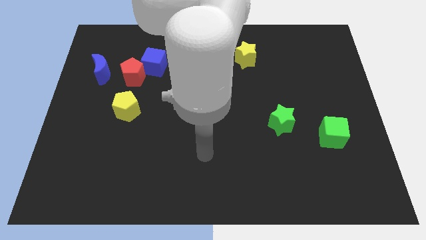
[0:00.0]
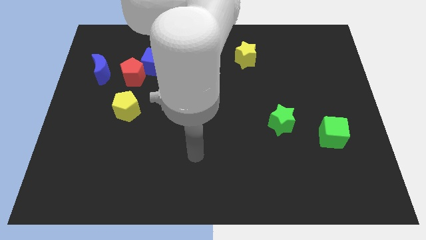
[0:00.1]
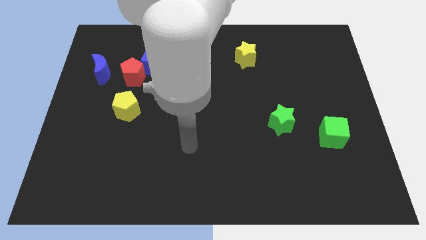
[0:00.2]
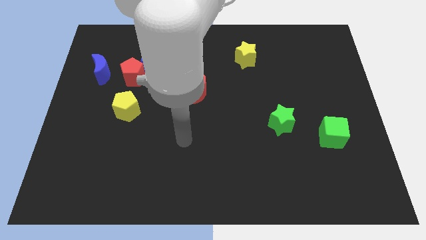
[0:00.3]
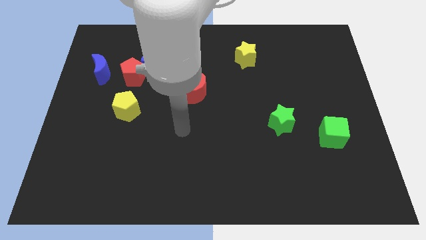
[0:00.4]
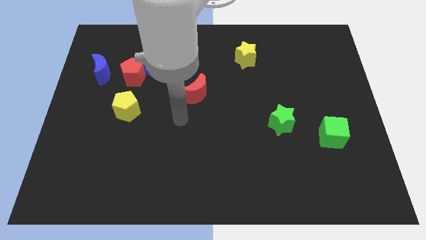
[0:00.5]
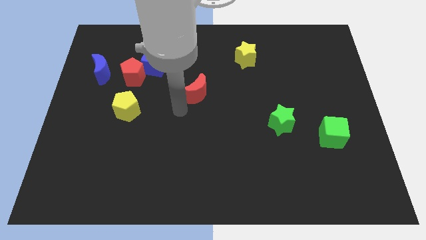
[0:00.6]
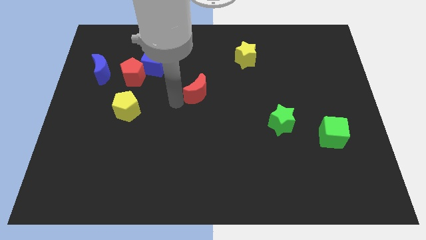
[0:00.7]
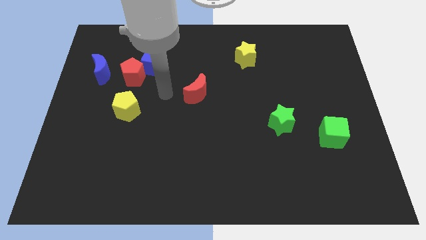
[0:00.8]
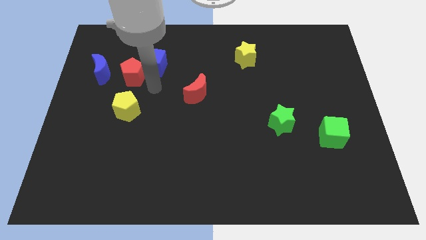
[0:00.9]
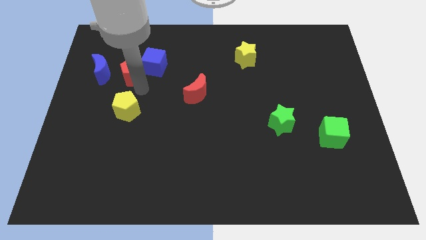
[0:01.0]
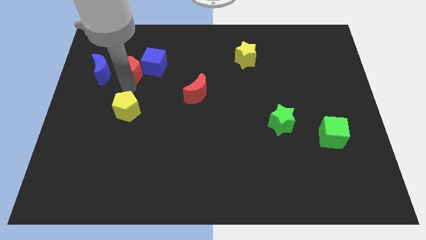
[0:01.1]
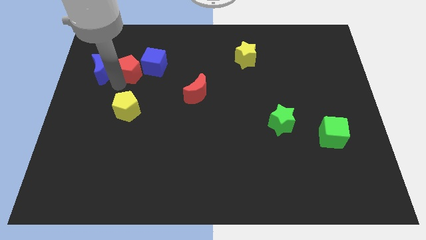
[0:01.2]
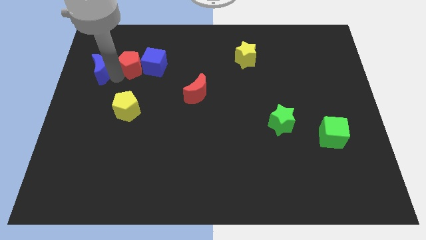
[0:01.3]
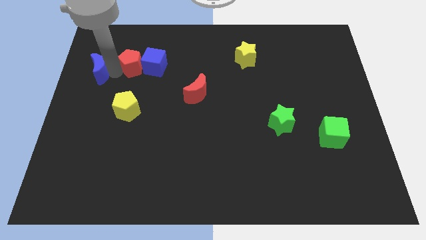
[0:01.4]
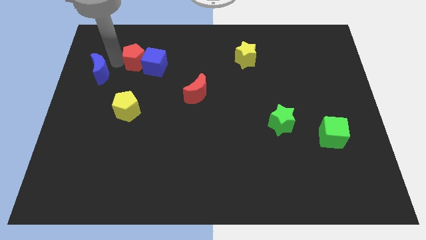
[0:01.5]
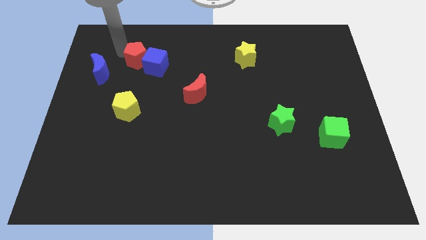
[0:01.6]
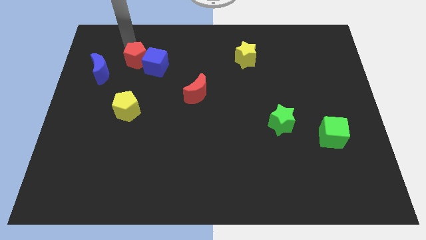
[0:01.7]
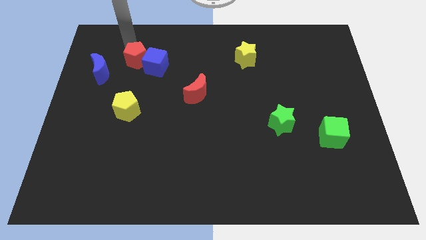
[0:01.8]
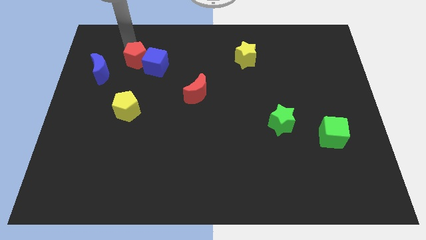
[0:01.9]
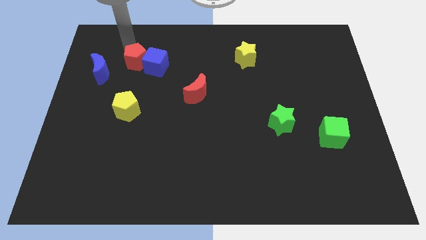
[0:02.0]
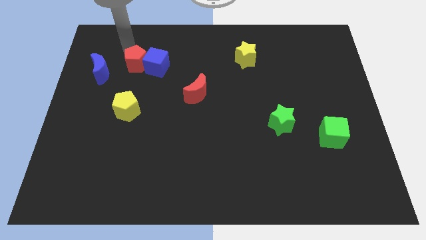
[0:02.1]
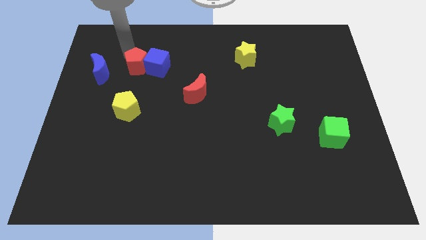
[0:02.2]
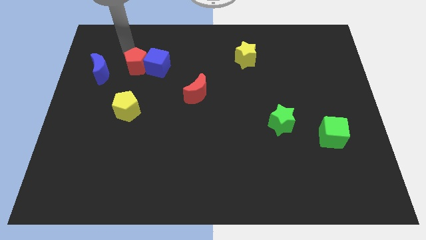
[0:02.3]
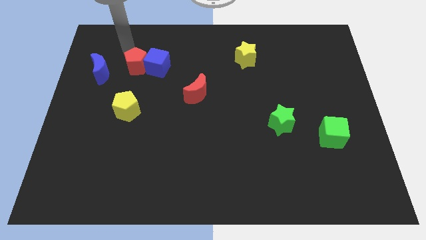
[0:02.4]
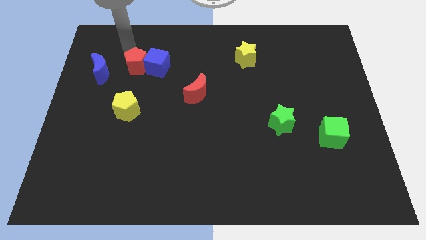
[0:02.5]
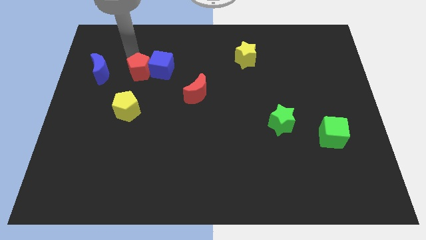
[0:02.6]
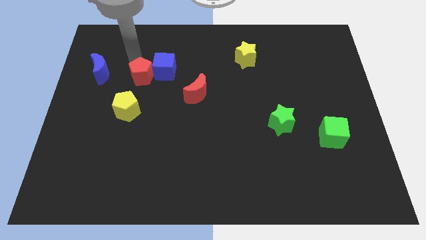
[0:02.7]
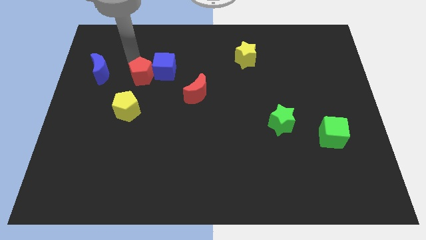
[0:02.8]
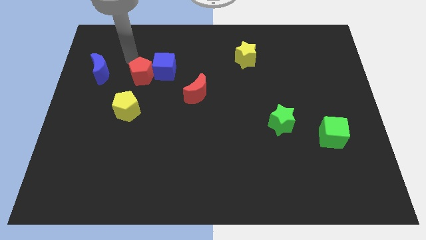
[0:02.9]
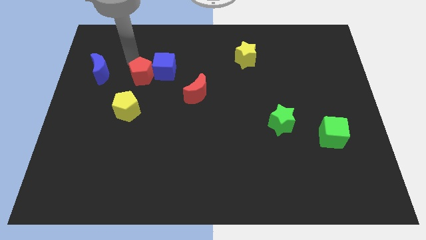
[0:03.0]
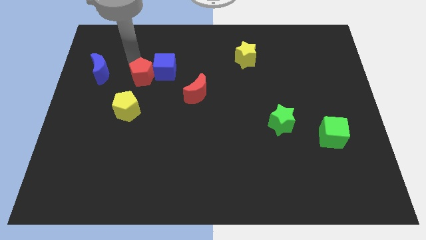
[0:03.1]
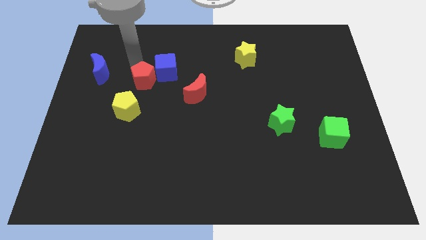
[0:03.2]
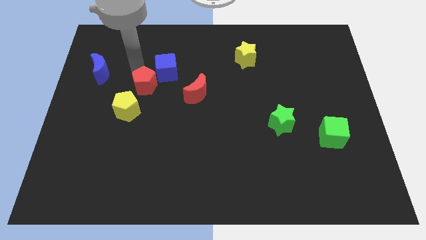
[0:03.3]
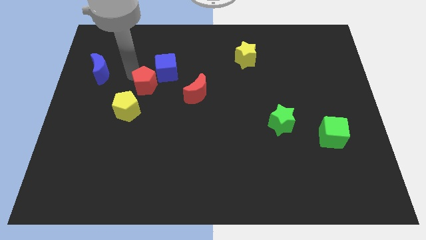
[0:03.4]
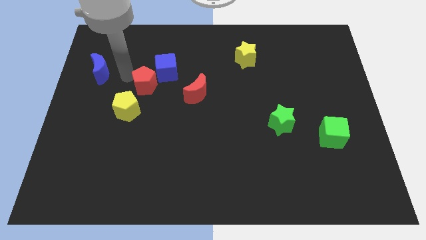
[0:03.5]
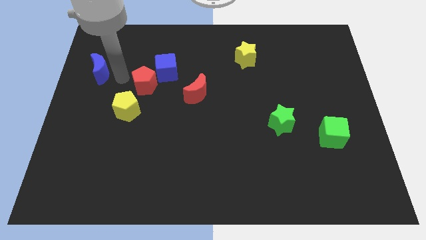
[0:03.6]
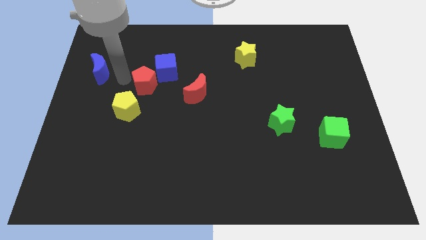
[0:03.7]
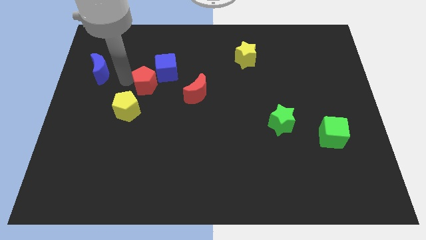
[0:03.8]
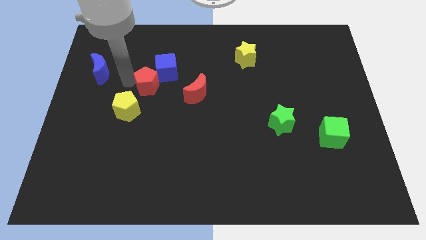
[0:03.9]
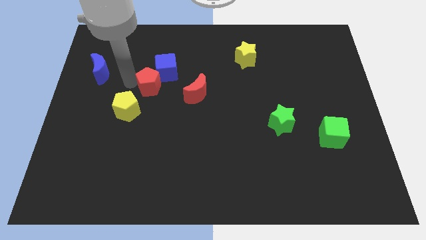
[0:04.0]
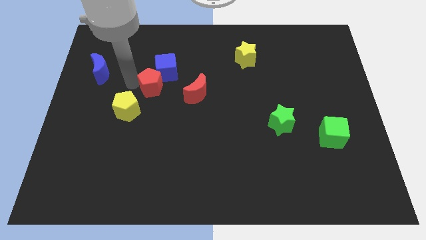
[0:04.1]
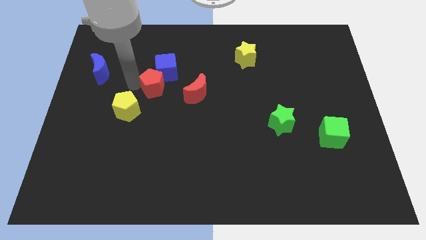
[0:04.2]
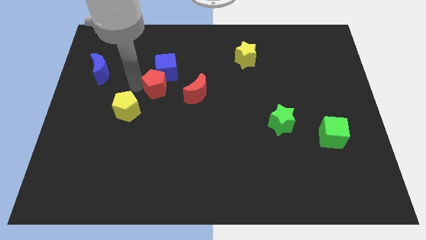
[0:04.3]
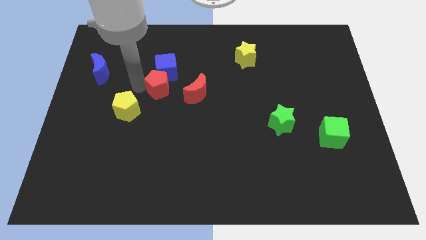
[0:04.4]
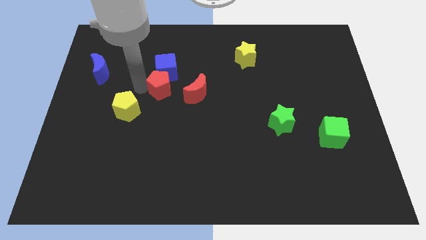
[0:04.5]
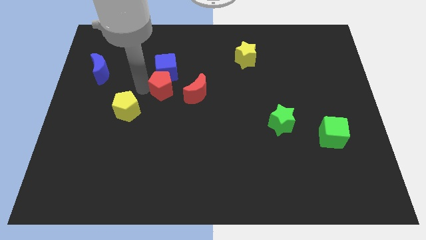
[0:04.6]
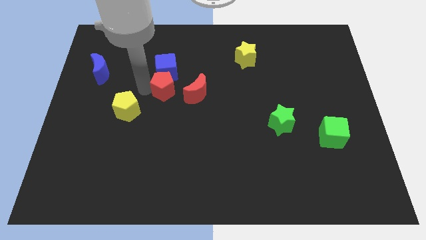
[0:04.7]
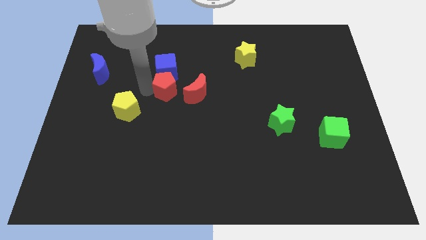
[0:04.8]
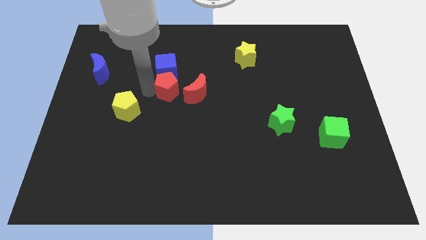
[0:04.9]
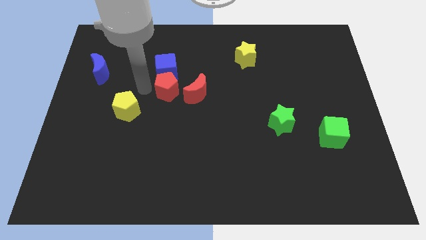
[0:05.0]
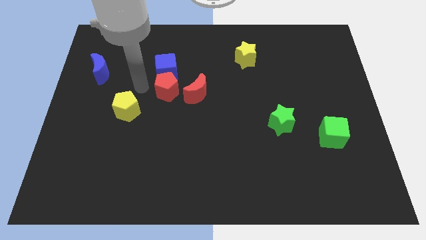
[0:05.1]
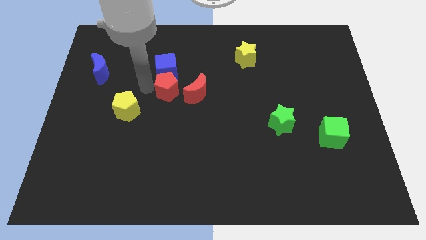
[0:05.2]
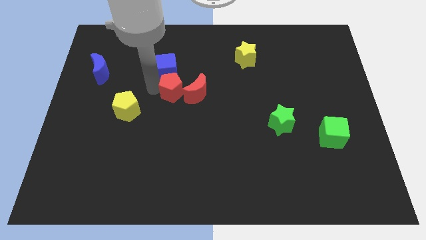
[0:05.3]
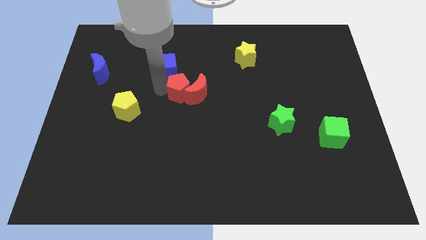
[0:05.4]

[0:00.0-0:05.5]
push the red pentagon next to the red moon

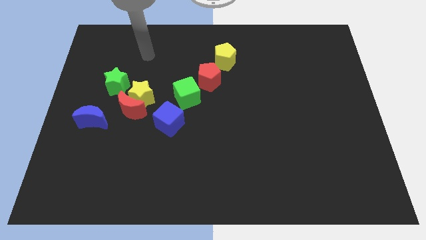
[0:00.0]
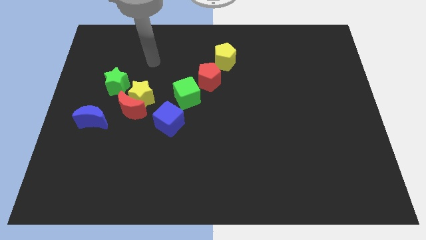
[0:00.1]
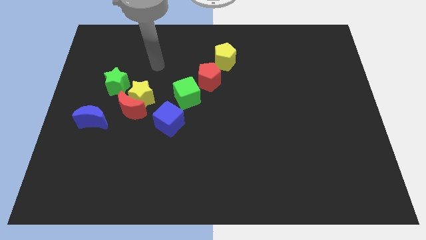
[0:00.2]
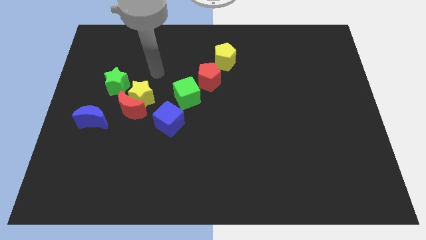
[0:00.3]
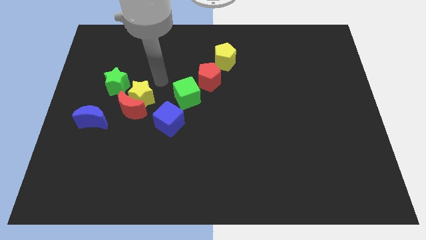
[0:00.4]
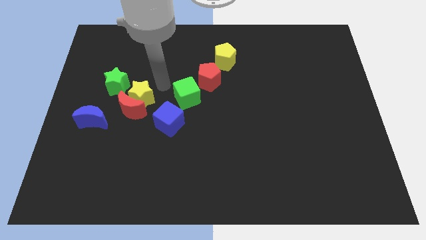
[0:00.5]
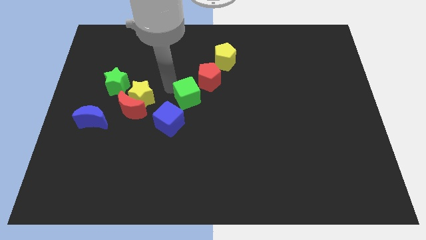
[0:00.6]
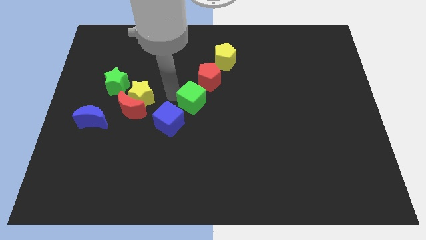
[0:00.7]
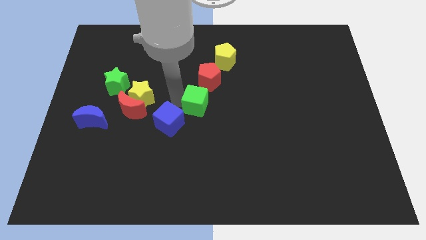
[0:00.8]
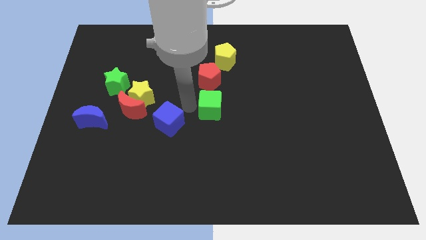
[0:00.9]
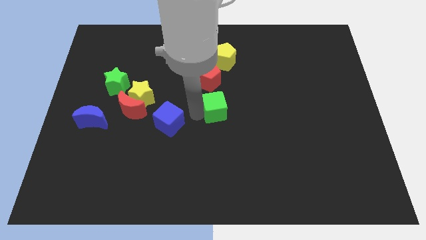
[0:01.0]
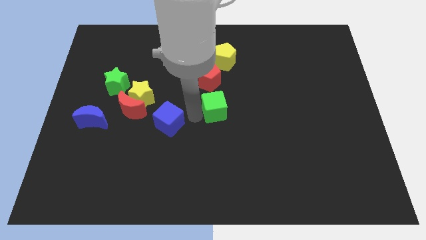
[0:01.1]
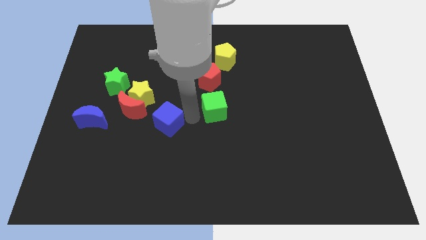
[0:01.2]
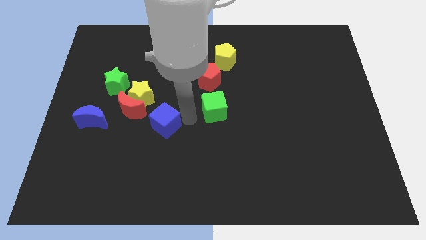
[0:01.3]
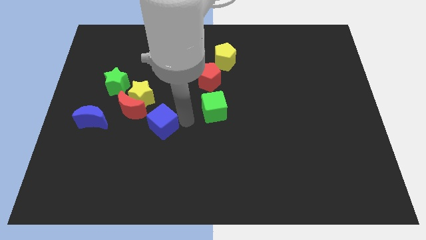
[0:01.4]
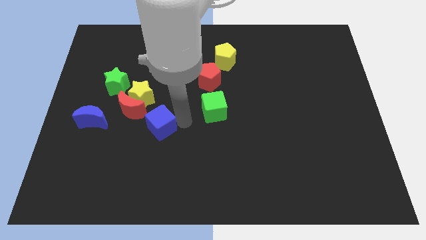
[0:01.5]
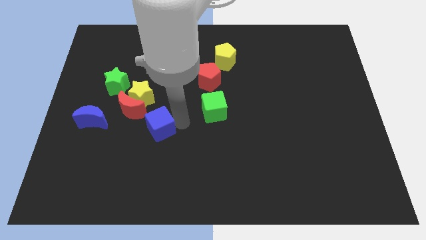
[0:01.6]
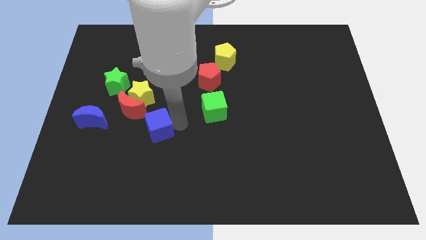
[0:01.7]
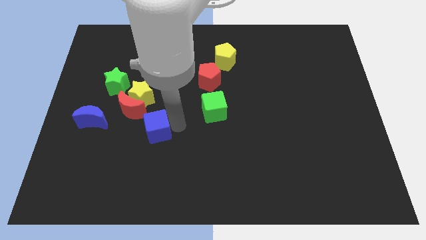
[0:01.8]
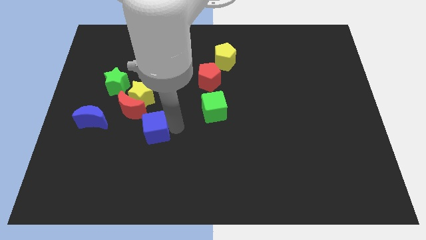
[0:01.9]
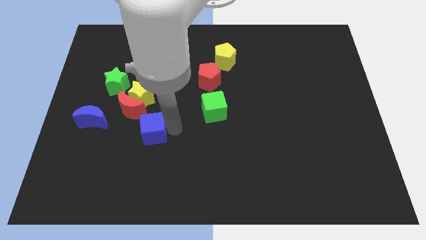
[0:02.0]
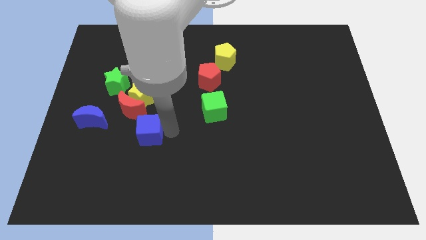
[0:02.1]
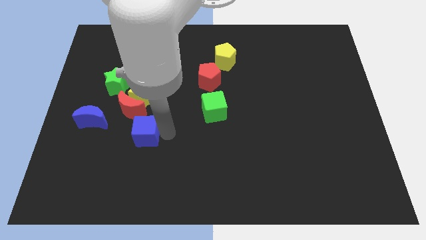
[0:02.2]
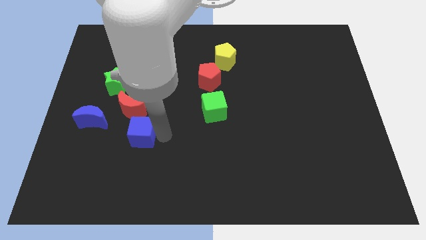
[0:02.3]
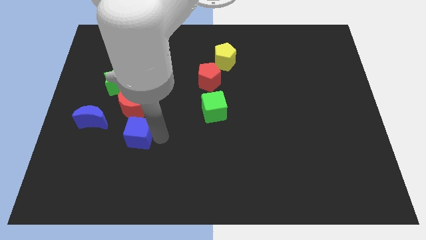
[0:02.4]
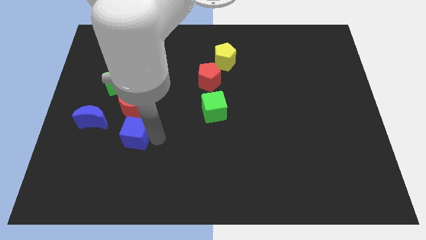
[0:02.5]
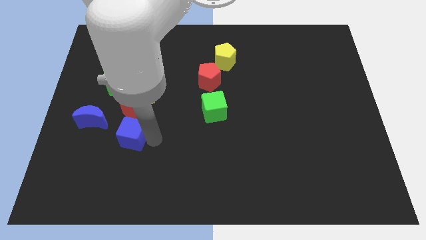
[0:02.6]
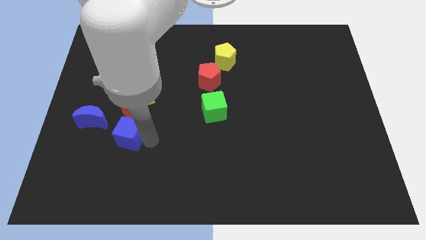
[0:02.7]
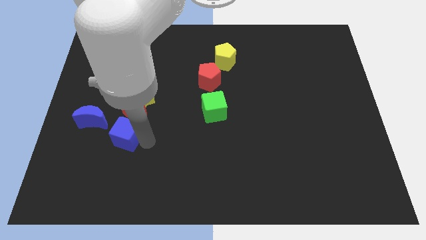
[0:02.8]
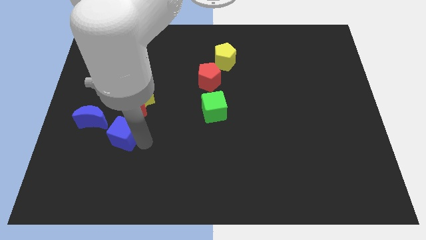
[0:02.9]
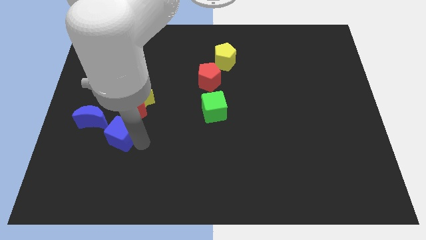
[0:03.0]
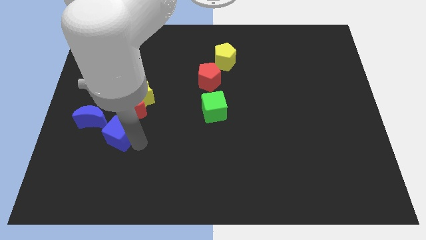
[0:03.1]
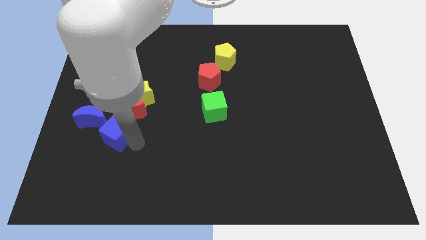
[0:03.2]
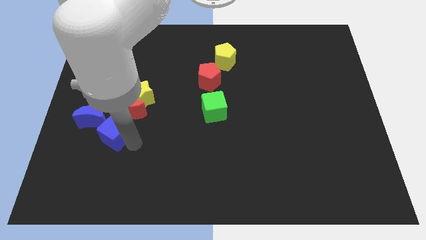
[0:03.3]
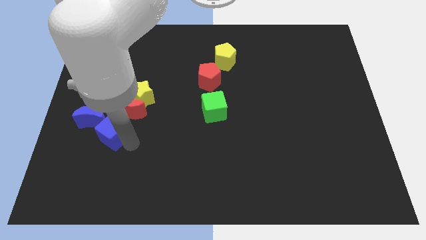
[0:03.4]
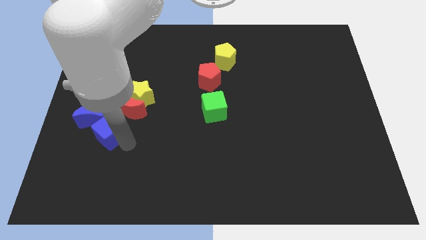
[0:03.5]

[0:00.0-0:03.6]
push the blue cube to the blue moon
